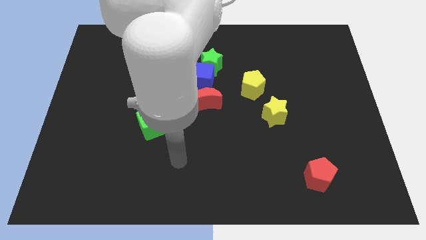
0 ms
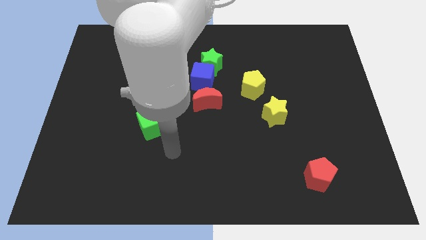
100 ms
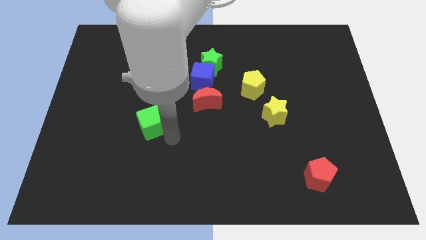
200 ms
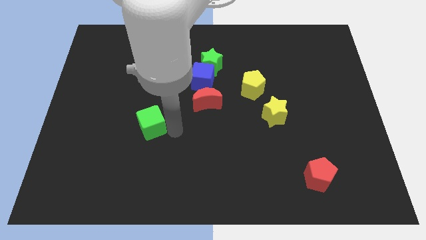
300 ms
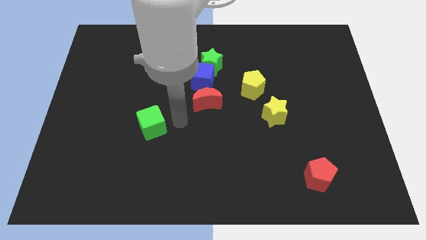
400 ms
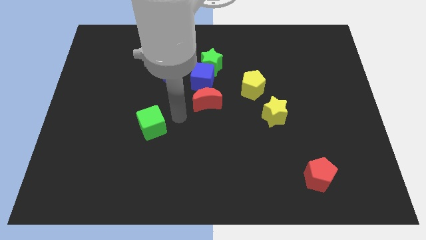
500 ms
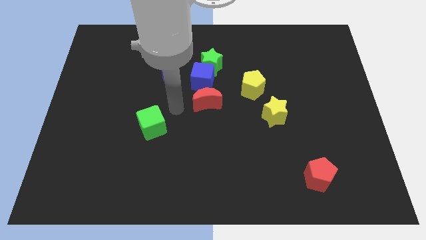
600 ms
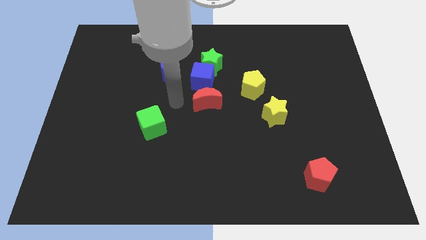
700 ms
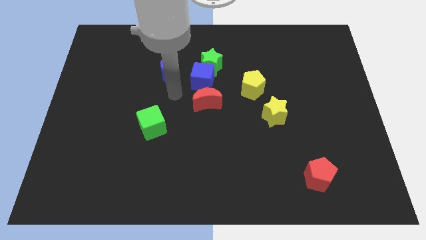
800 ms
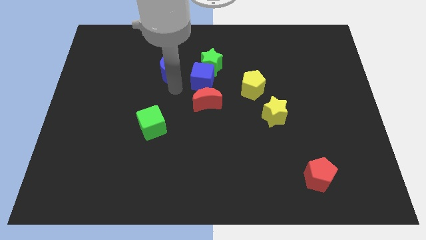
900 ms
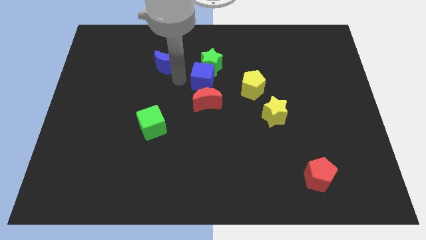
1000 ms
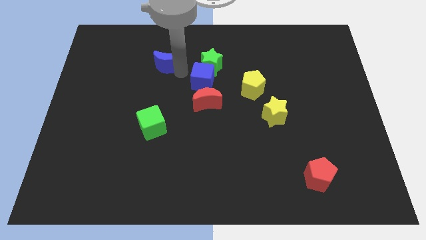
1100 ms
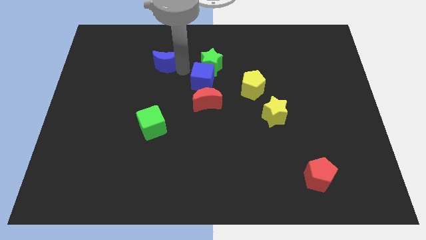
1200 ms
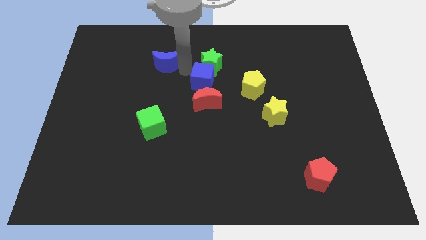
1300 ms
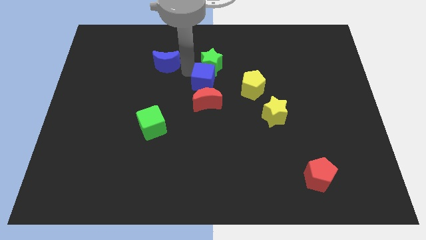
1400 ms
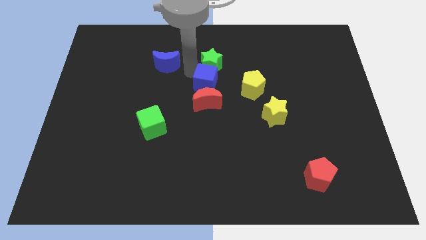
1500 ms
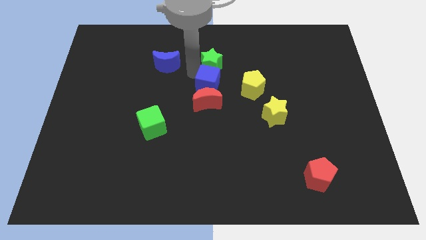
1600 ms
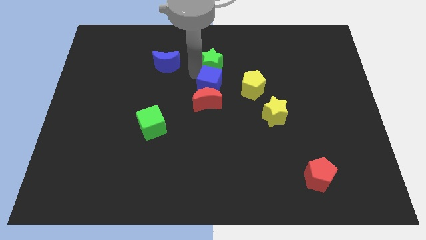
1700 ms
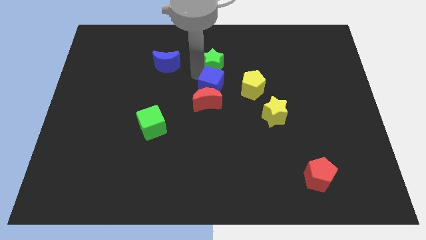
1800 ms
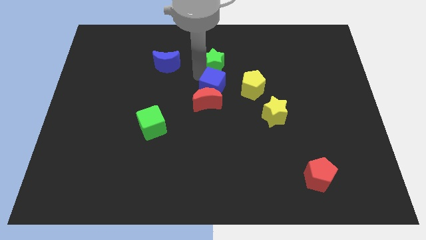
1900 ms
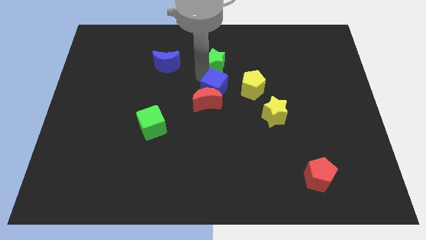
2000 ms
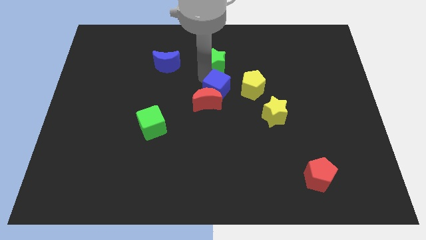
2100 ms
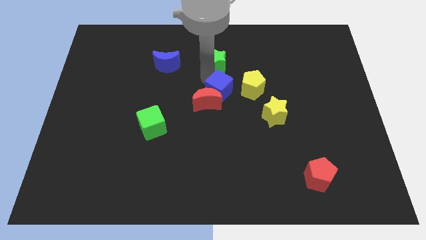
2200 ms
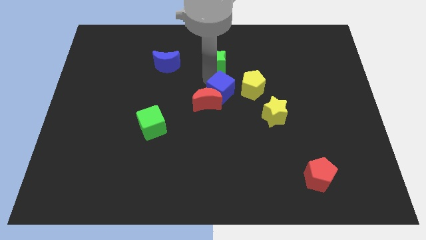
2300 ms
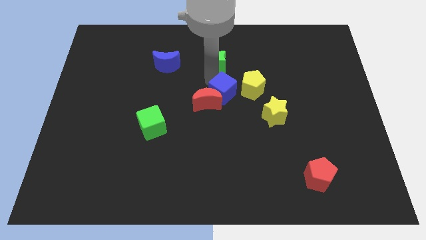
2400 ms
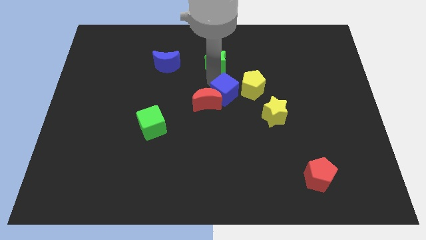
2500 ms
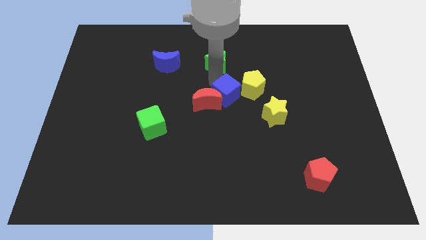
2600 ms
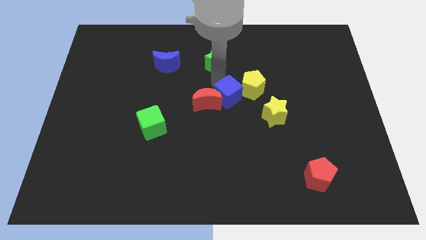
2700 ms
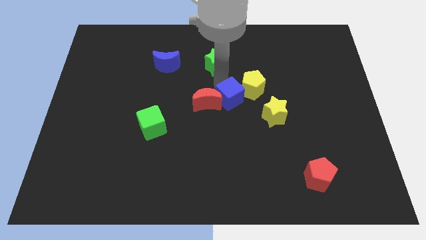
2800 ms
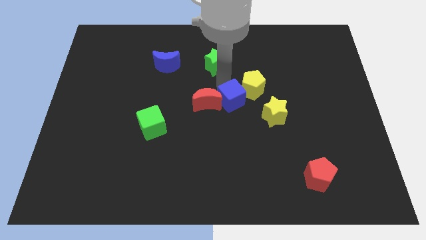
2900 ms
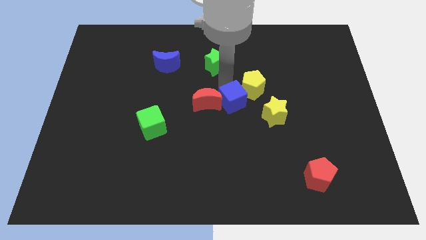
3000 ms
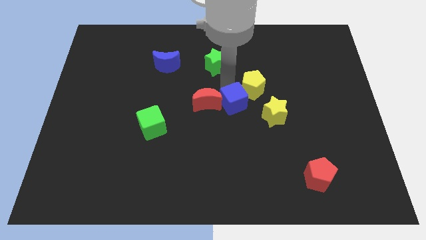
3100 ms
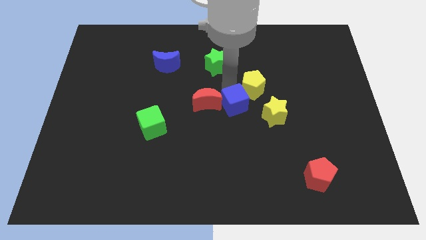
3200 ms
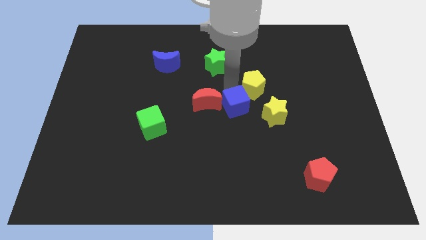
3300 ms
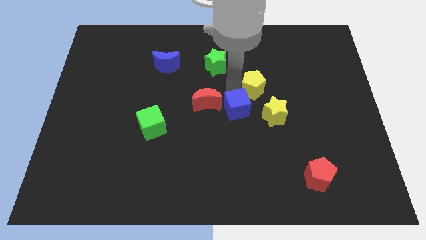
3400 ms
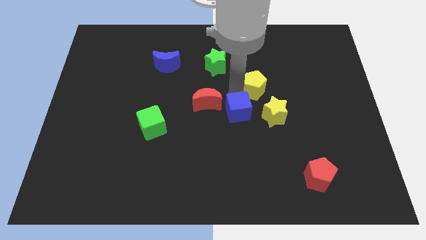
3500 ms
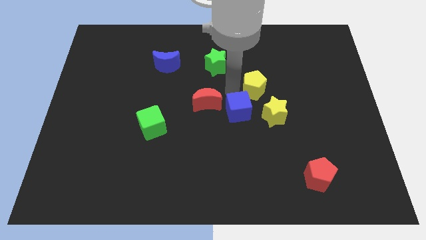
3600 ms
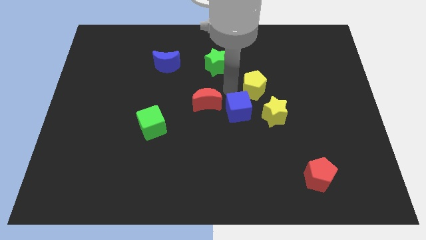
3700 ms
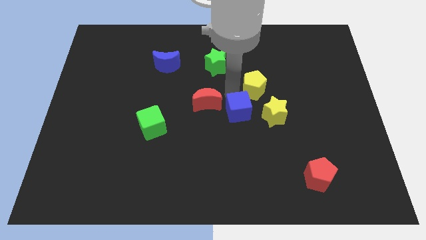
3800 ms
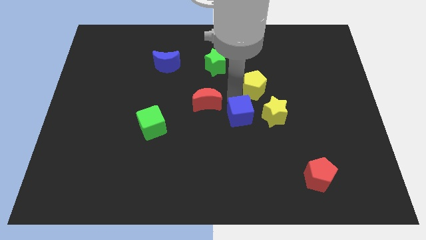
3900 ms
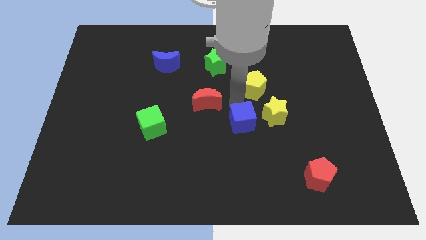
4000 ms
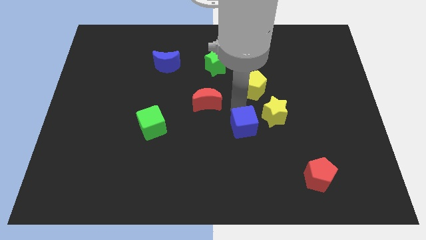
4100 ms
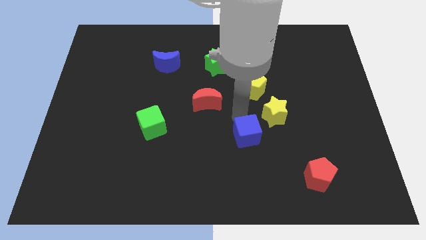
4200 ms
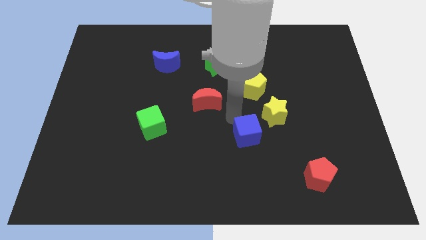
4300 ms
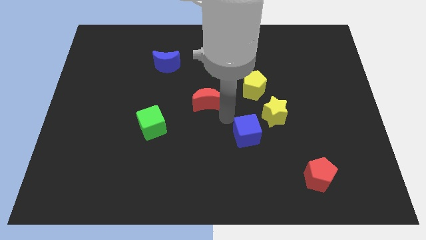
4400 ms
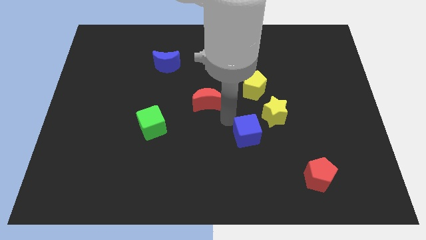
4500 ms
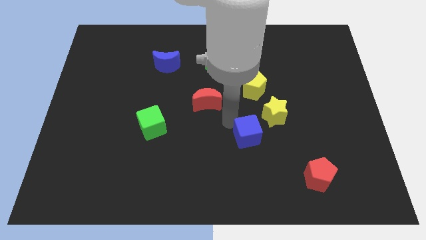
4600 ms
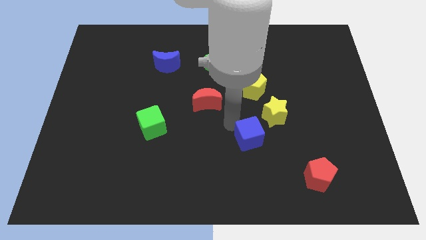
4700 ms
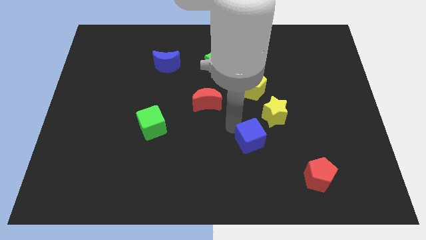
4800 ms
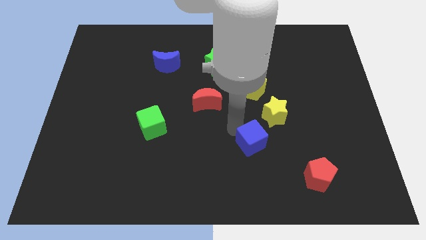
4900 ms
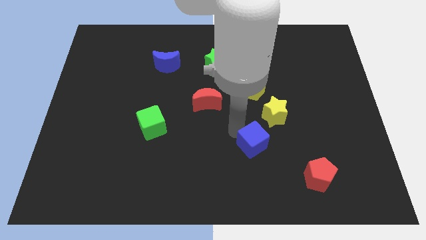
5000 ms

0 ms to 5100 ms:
push the blue cube down and to the right diagonally

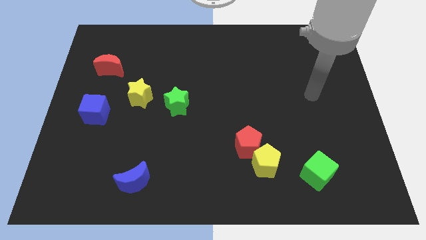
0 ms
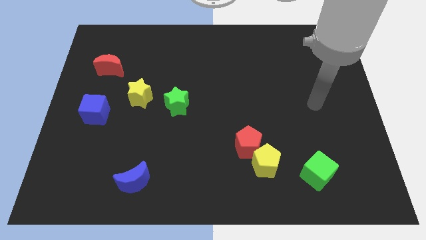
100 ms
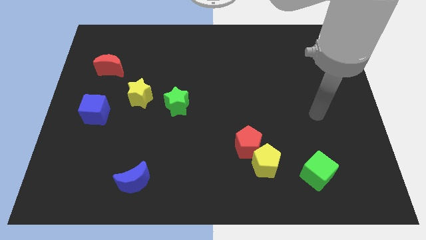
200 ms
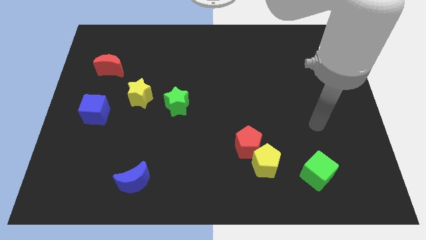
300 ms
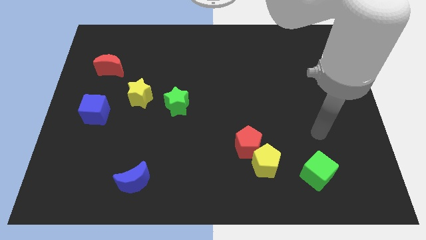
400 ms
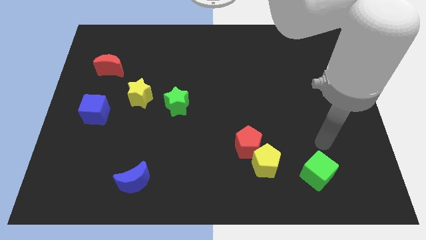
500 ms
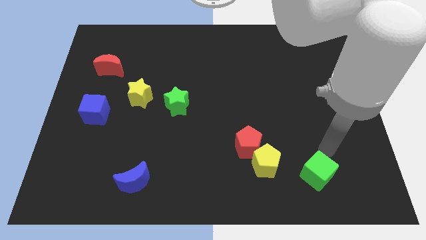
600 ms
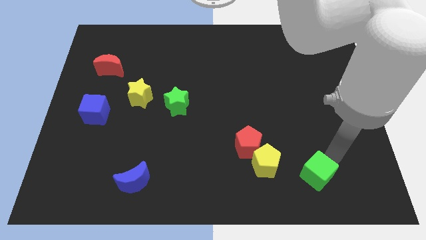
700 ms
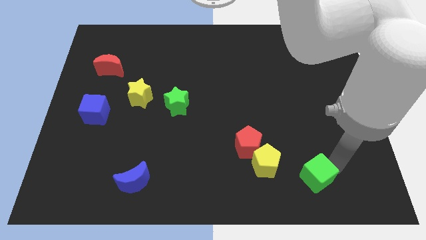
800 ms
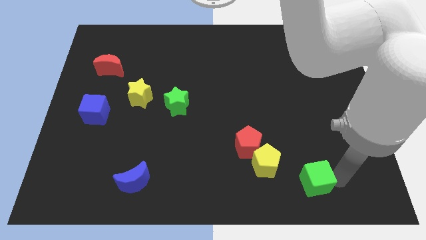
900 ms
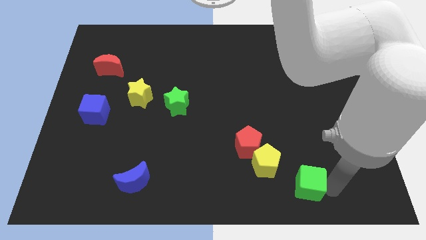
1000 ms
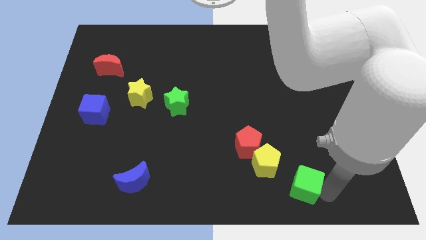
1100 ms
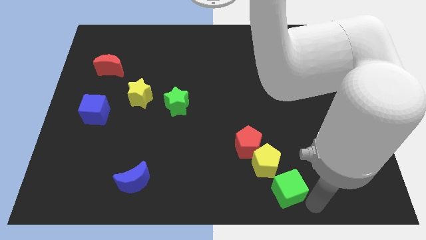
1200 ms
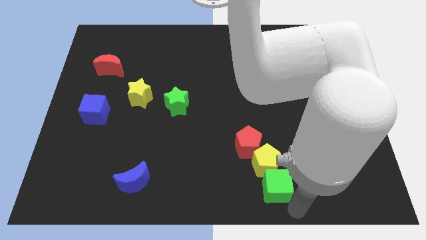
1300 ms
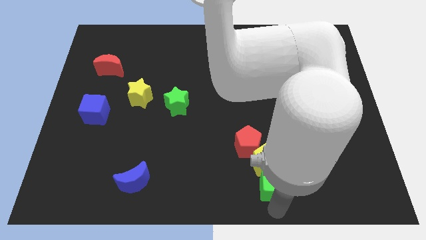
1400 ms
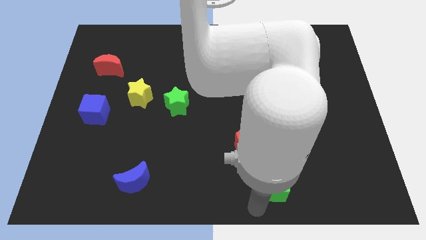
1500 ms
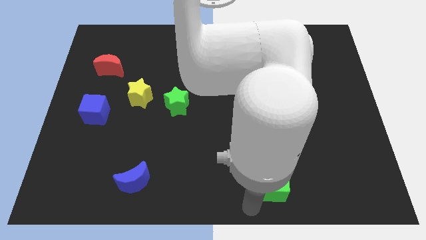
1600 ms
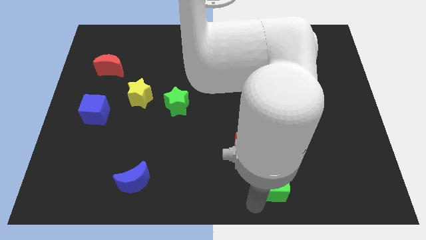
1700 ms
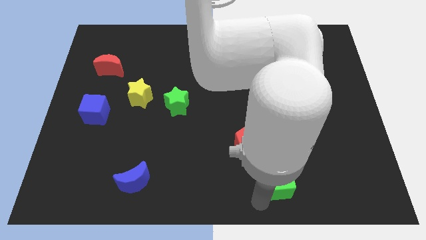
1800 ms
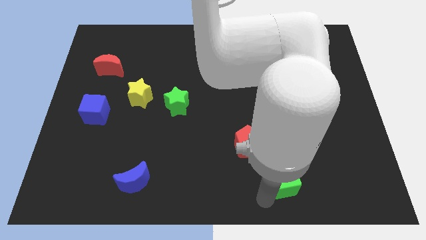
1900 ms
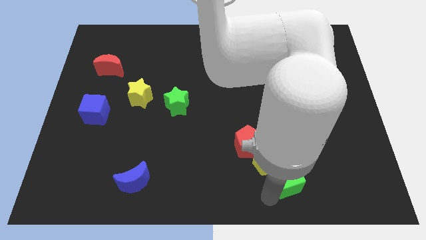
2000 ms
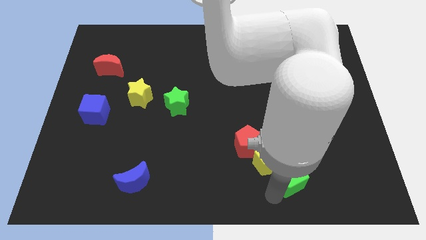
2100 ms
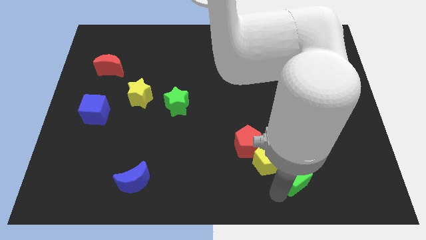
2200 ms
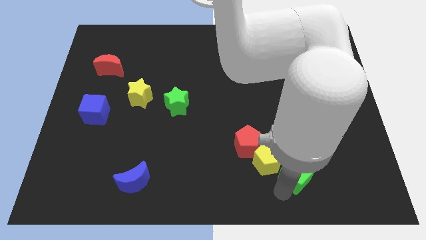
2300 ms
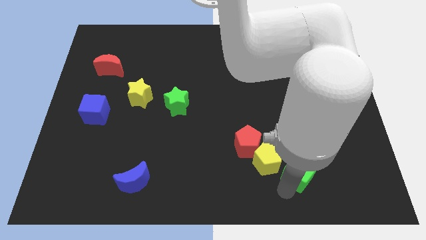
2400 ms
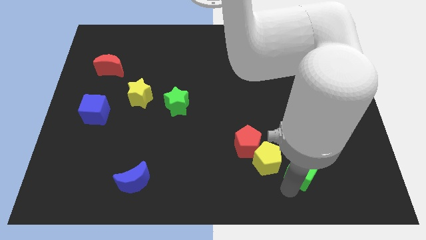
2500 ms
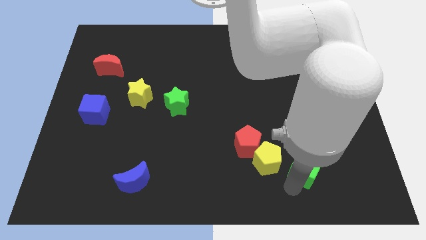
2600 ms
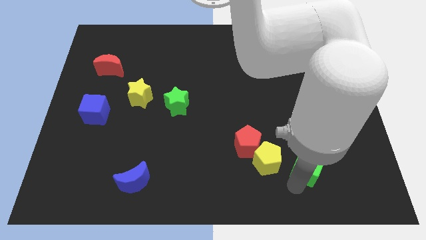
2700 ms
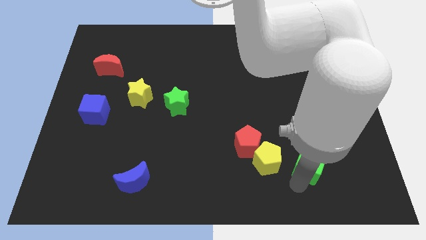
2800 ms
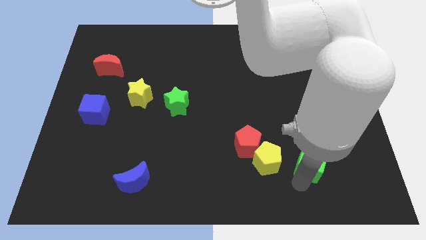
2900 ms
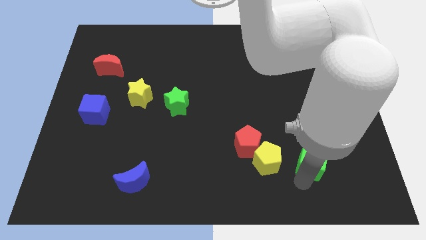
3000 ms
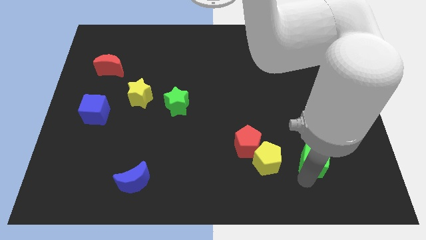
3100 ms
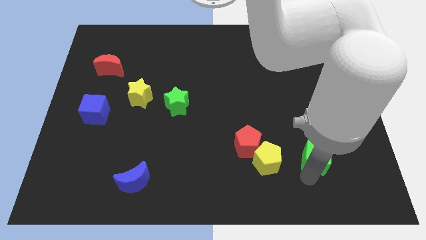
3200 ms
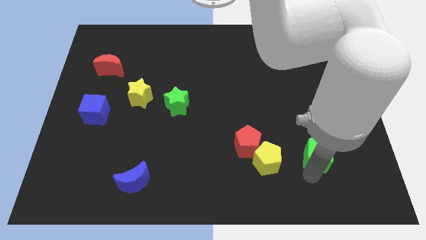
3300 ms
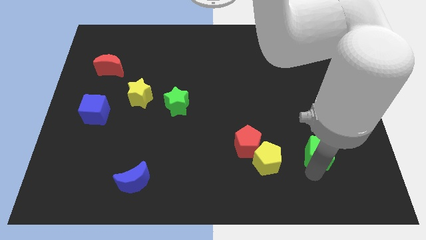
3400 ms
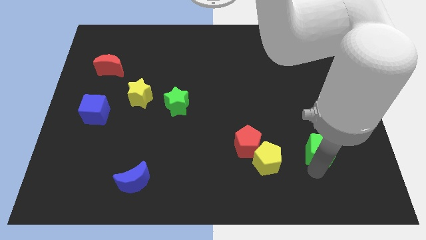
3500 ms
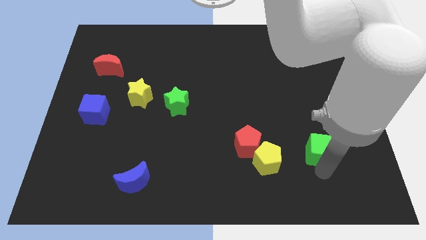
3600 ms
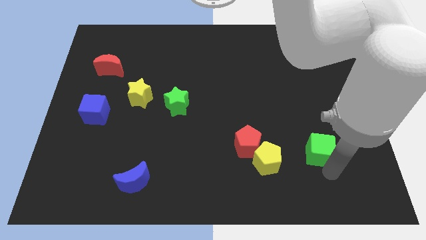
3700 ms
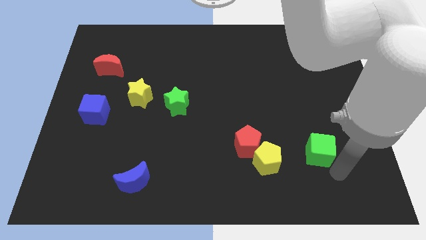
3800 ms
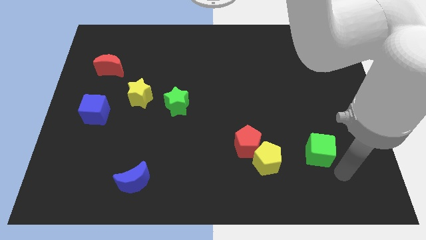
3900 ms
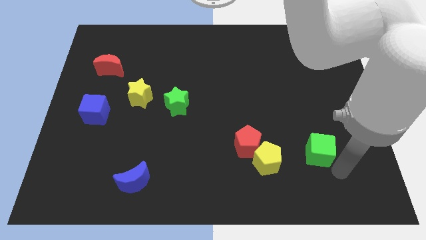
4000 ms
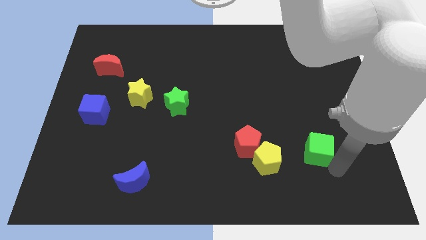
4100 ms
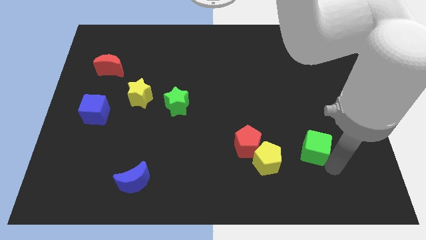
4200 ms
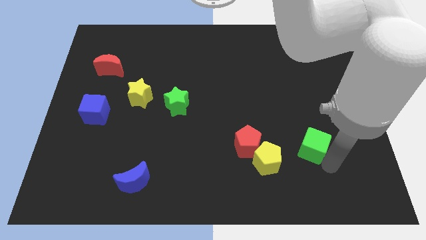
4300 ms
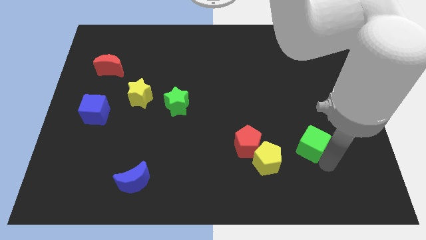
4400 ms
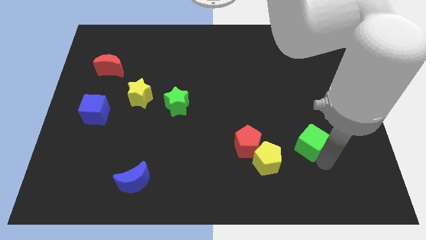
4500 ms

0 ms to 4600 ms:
slide the green cube up a little bit
